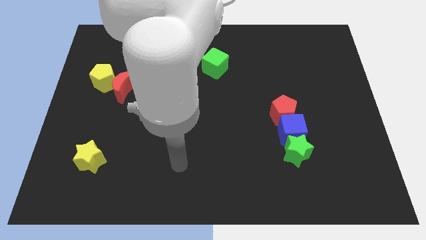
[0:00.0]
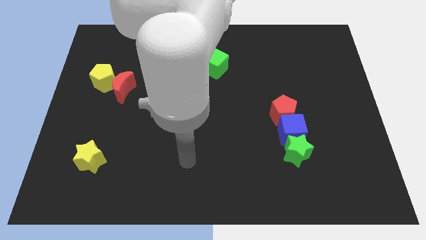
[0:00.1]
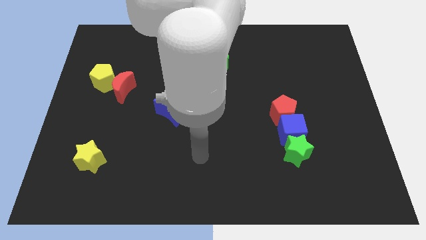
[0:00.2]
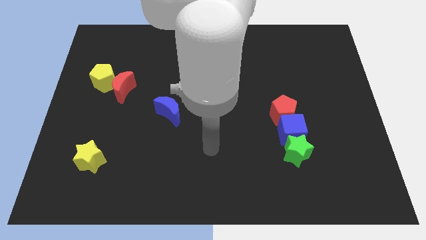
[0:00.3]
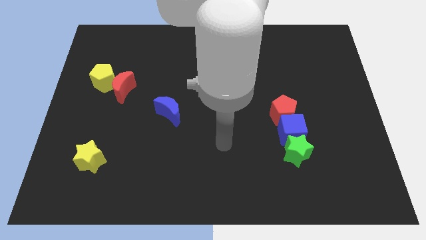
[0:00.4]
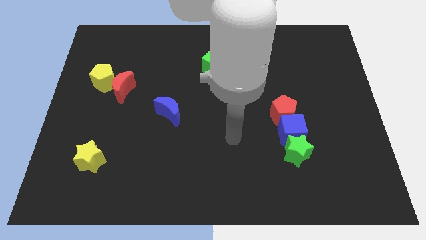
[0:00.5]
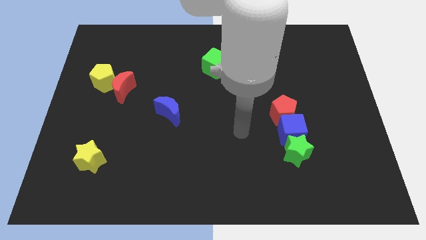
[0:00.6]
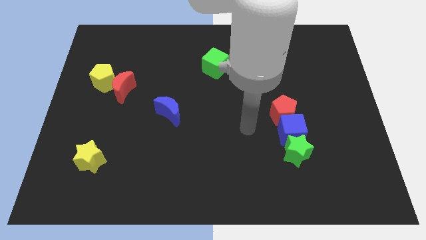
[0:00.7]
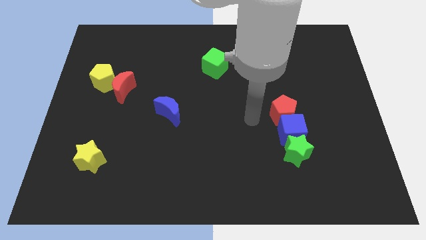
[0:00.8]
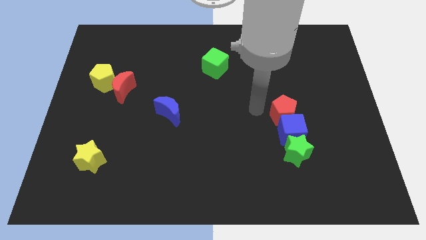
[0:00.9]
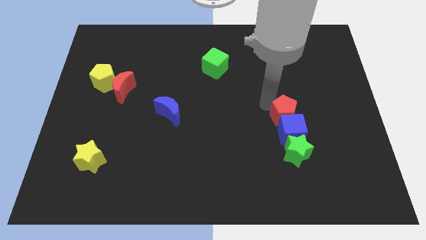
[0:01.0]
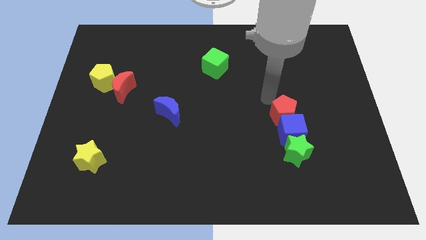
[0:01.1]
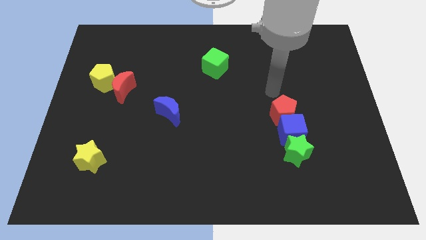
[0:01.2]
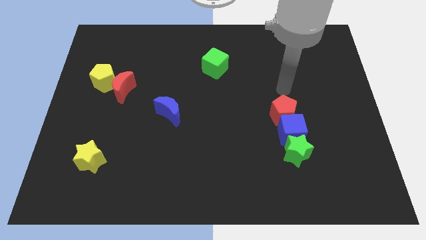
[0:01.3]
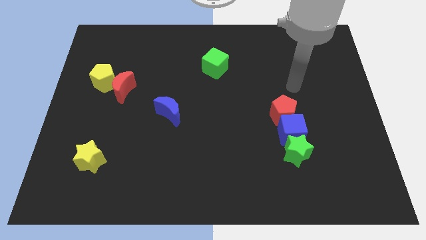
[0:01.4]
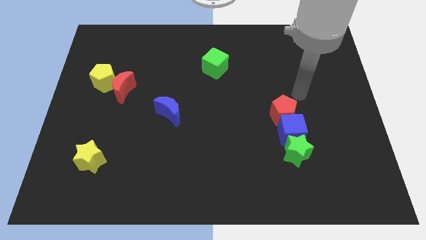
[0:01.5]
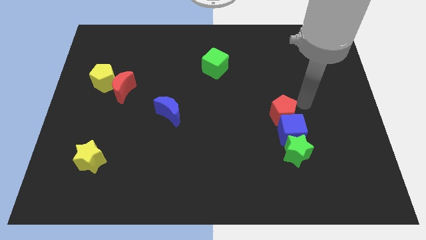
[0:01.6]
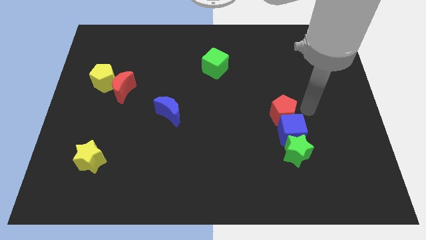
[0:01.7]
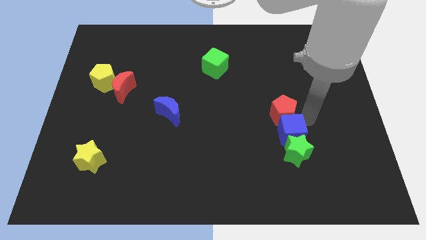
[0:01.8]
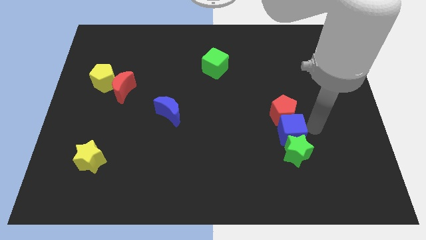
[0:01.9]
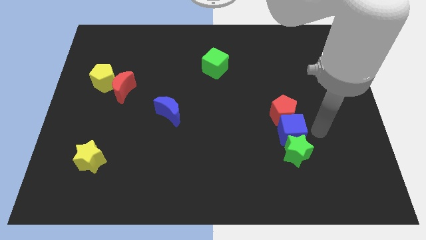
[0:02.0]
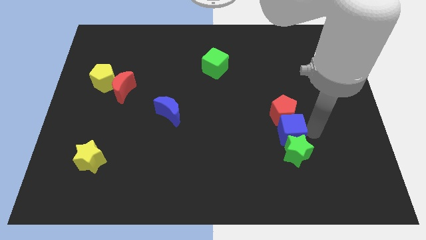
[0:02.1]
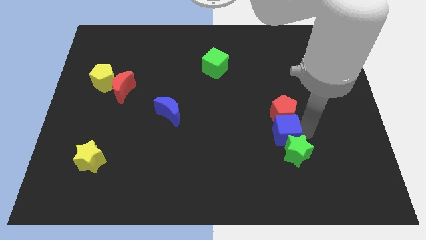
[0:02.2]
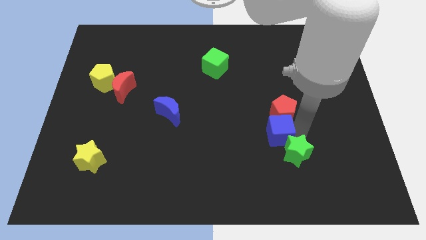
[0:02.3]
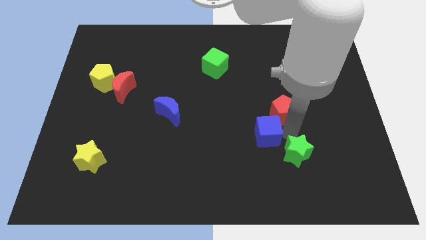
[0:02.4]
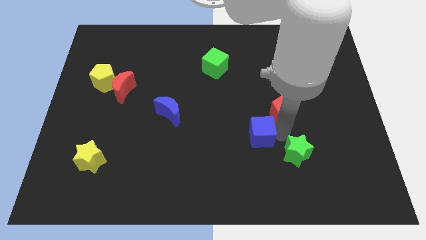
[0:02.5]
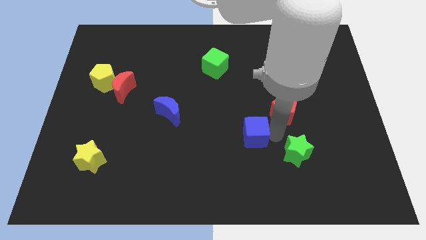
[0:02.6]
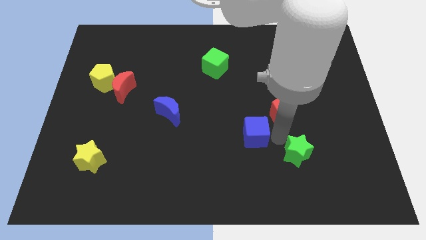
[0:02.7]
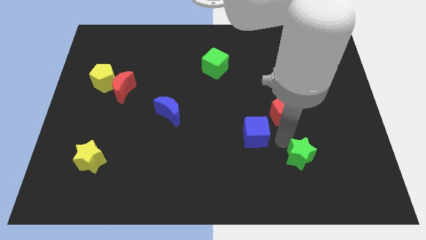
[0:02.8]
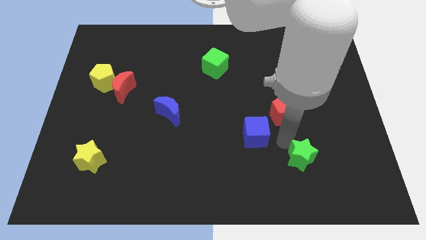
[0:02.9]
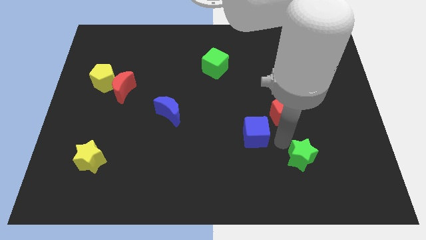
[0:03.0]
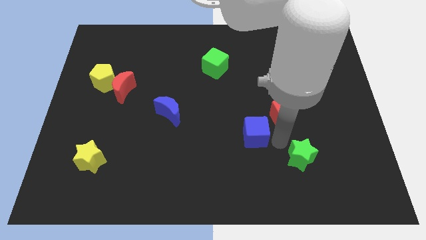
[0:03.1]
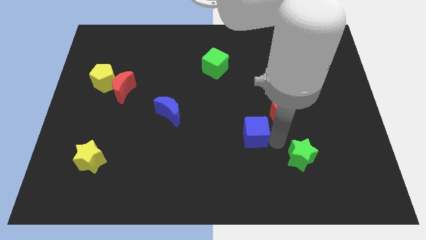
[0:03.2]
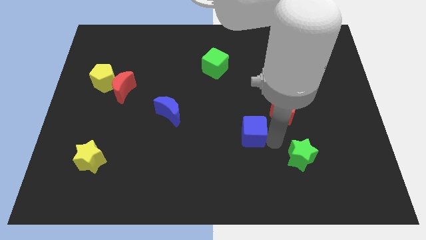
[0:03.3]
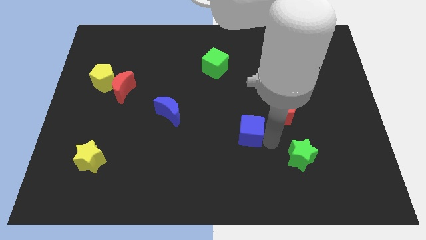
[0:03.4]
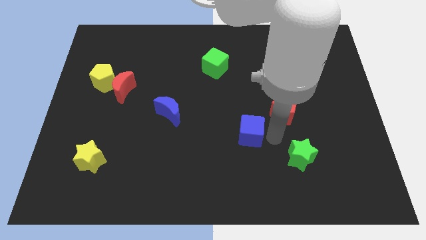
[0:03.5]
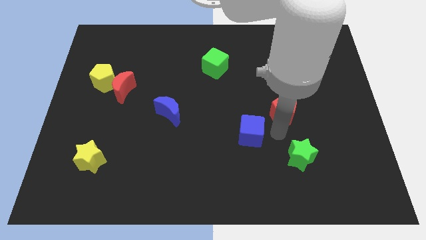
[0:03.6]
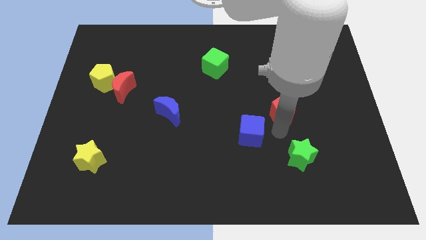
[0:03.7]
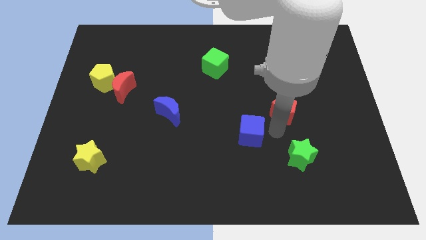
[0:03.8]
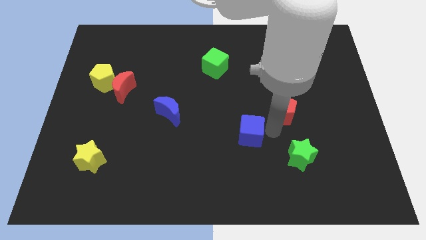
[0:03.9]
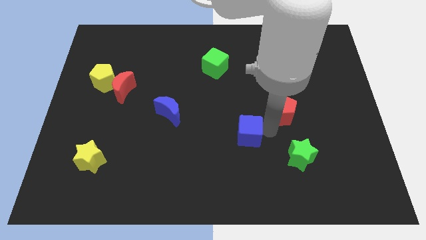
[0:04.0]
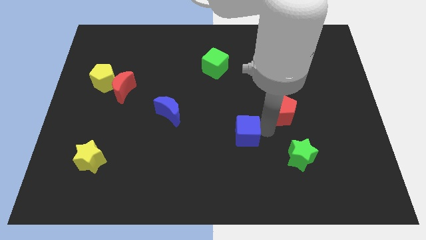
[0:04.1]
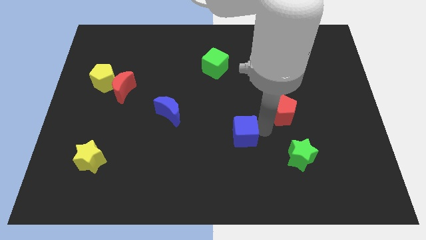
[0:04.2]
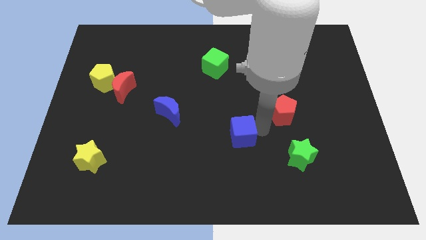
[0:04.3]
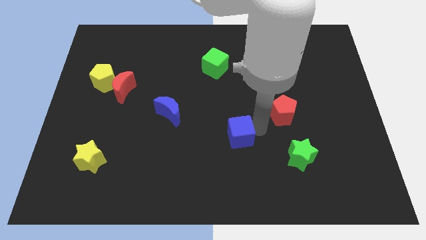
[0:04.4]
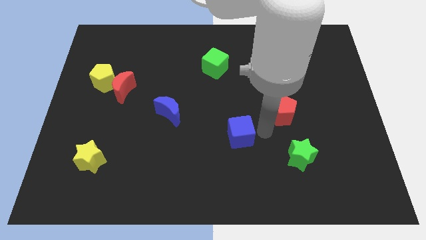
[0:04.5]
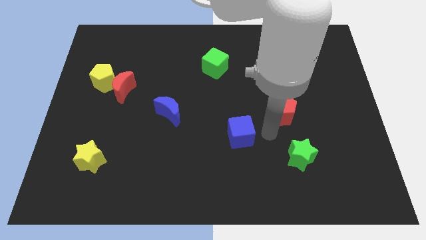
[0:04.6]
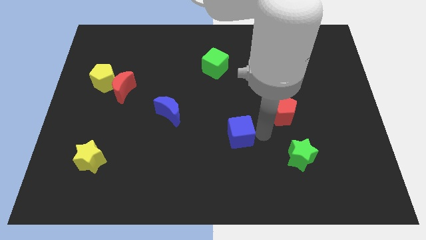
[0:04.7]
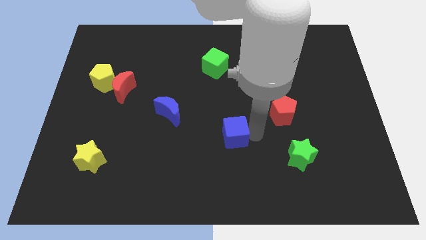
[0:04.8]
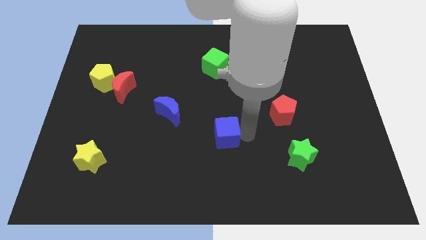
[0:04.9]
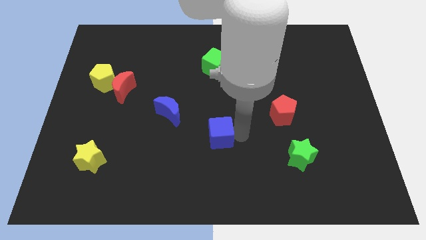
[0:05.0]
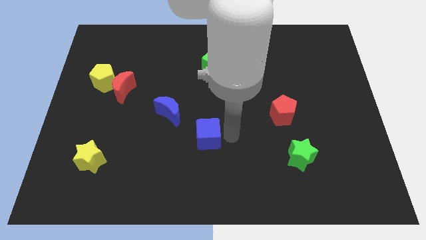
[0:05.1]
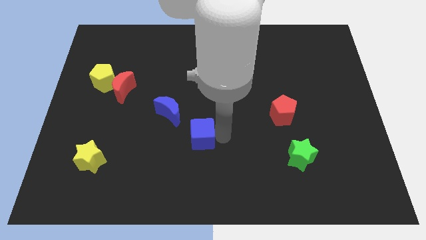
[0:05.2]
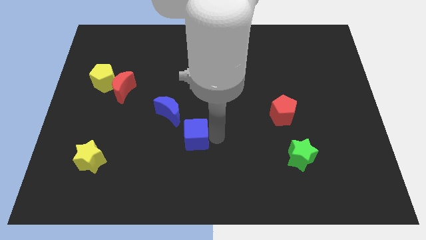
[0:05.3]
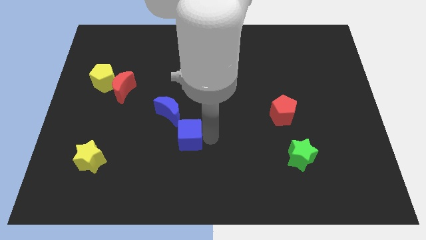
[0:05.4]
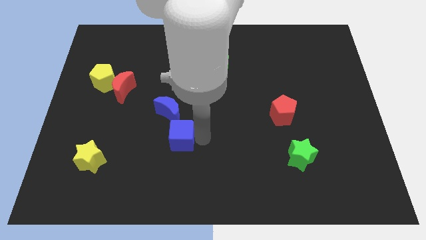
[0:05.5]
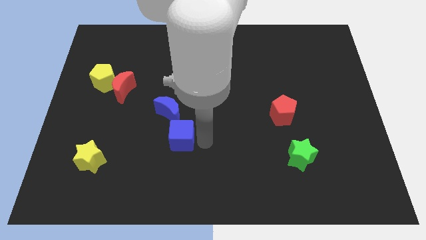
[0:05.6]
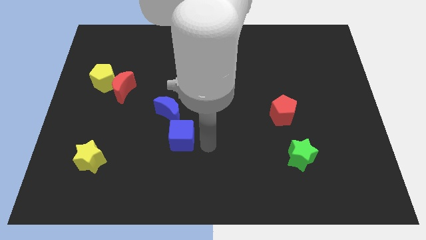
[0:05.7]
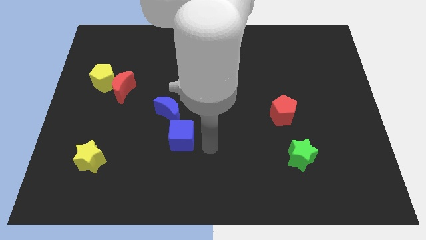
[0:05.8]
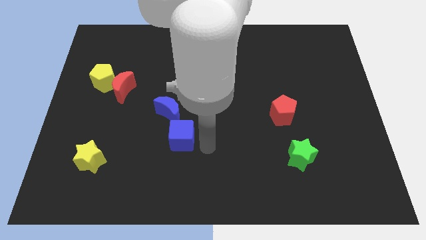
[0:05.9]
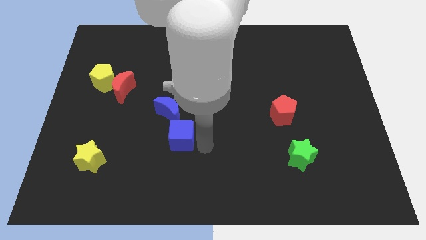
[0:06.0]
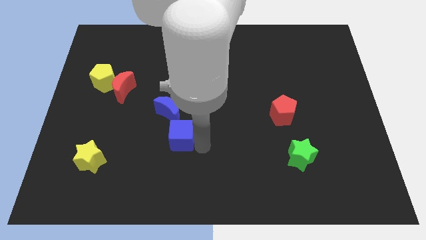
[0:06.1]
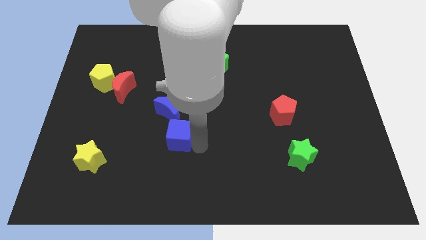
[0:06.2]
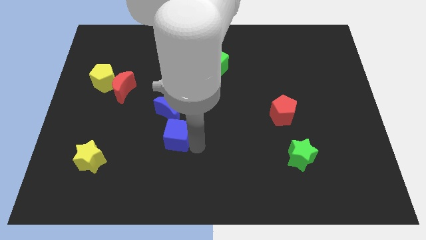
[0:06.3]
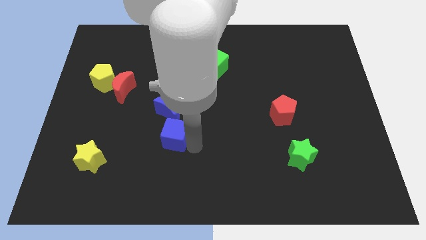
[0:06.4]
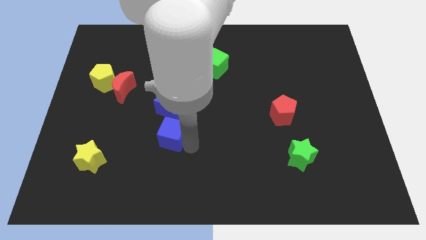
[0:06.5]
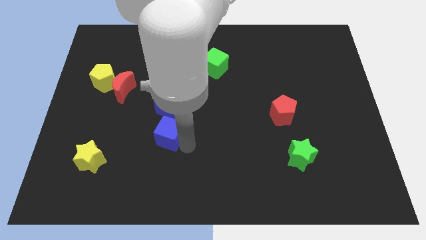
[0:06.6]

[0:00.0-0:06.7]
put the blue cube to the bottom left side of the blue moon

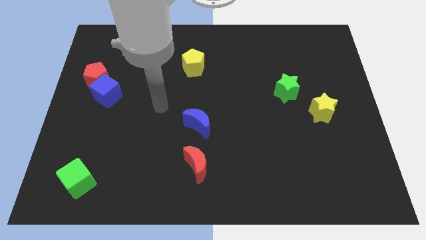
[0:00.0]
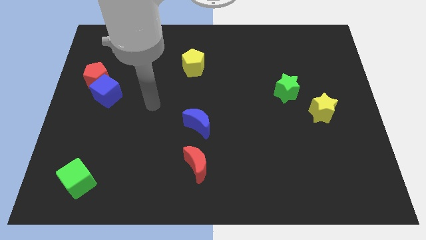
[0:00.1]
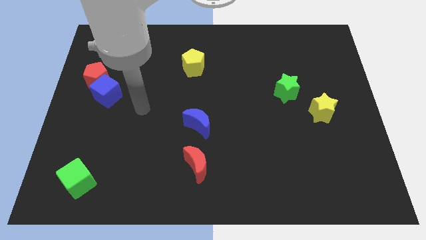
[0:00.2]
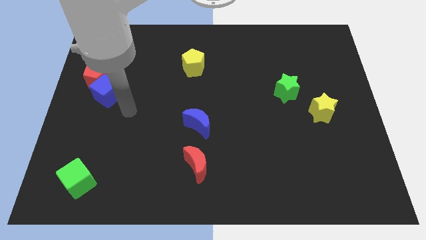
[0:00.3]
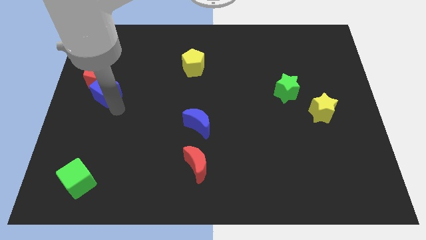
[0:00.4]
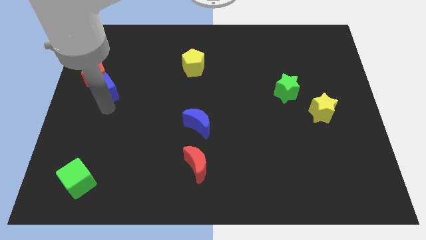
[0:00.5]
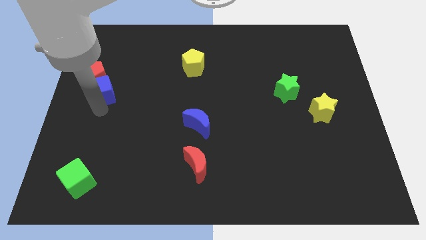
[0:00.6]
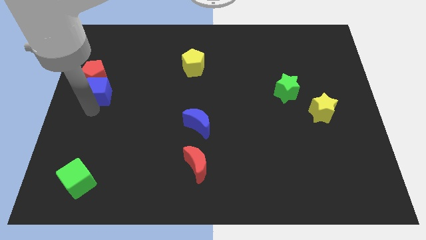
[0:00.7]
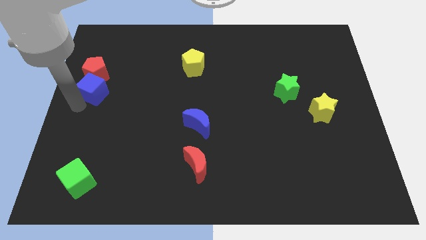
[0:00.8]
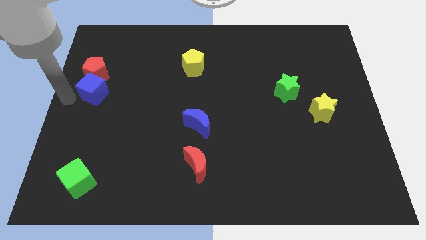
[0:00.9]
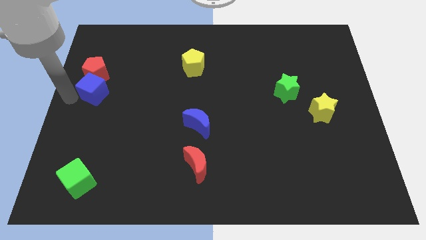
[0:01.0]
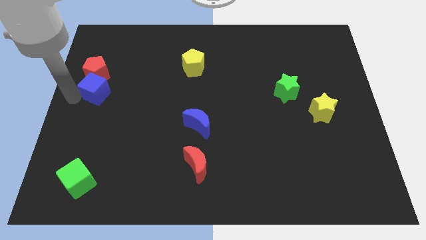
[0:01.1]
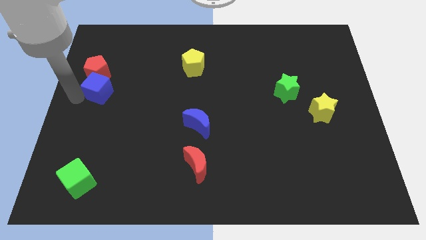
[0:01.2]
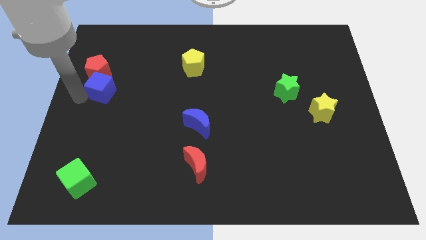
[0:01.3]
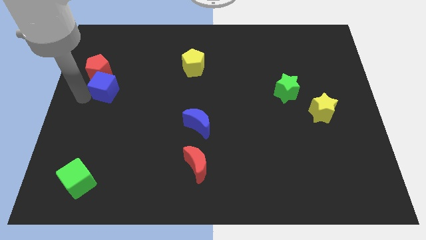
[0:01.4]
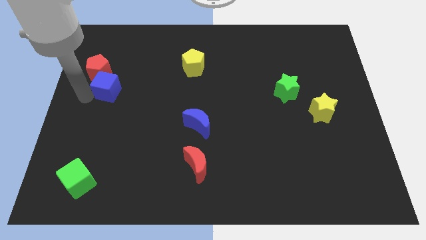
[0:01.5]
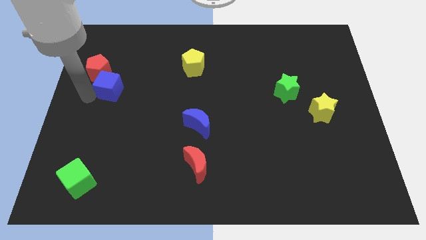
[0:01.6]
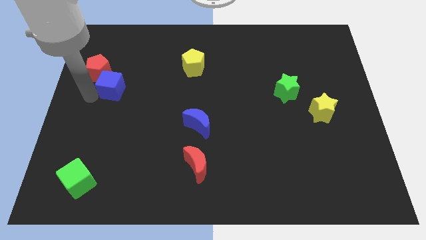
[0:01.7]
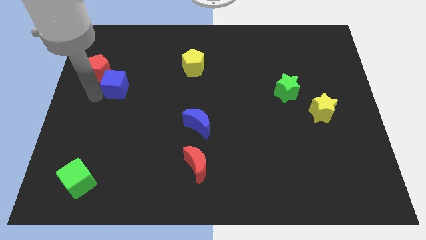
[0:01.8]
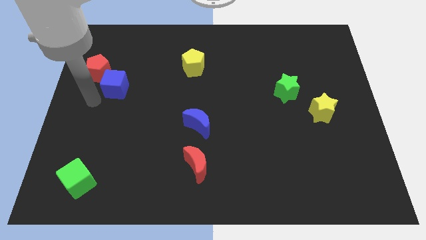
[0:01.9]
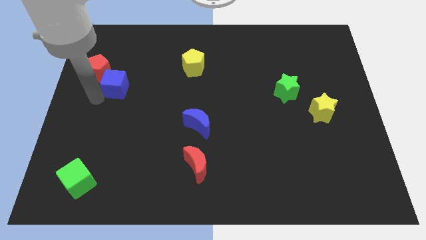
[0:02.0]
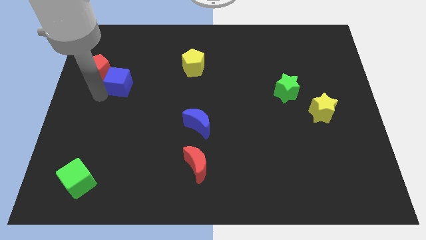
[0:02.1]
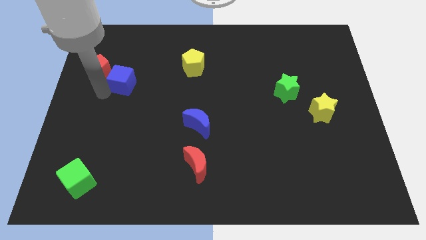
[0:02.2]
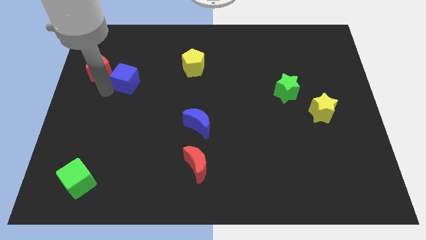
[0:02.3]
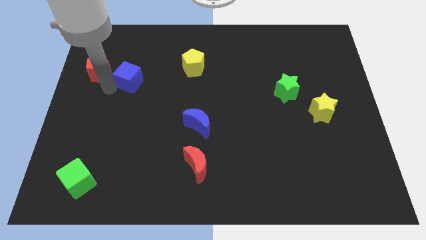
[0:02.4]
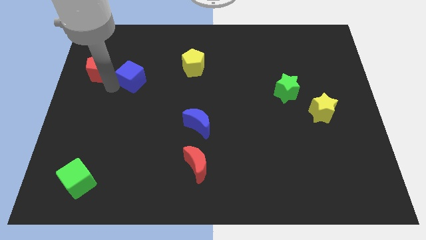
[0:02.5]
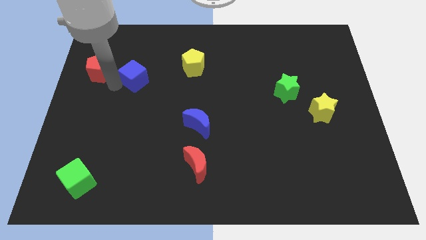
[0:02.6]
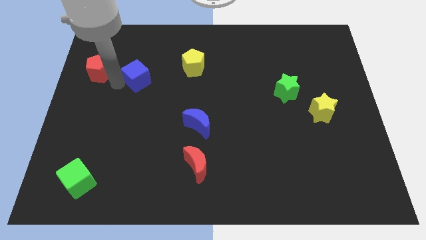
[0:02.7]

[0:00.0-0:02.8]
put the blue cube to the left side of the yellow pentagon
